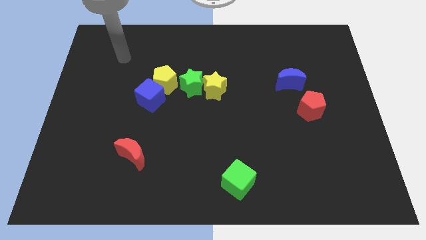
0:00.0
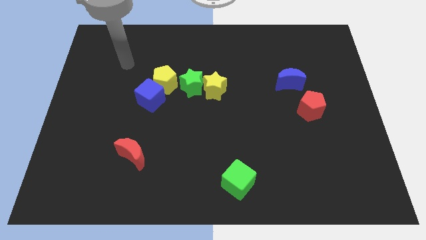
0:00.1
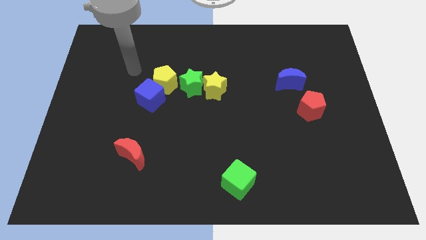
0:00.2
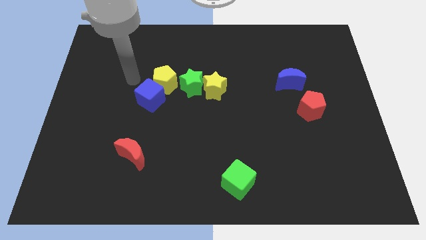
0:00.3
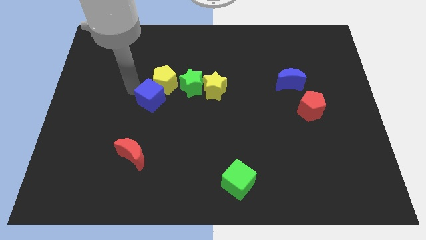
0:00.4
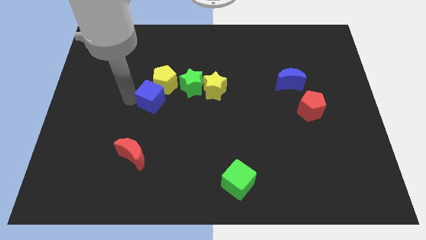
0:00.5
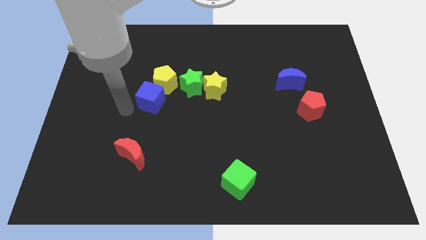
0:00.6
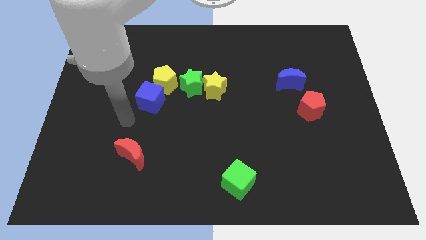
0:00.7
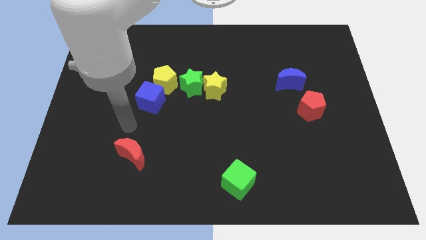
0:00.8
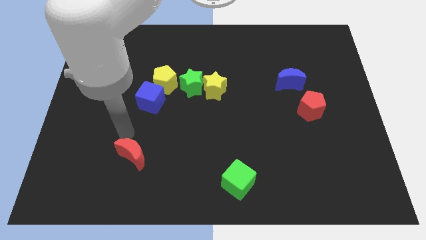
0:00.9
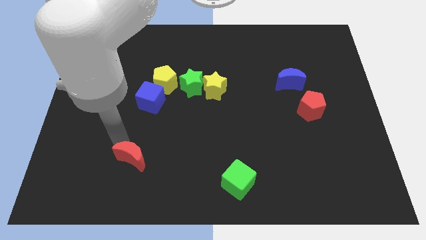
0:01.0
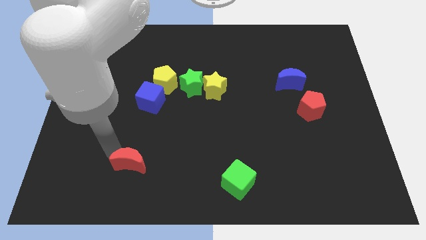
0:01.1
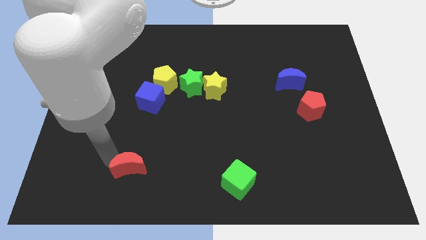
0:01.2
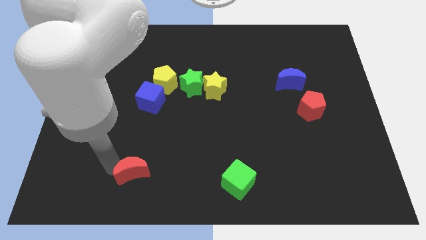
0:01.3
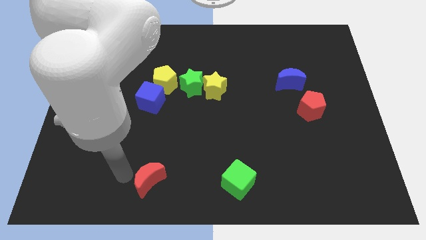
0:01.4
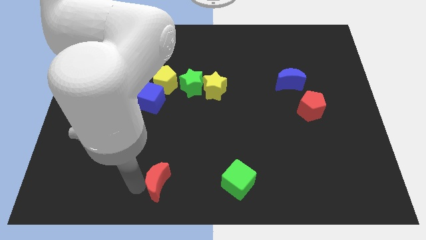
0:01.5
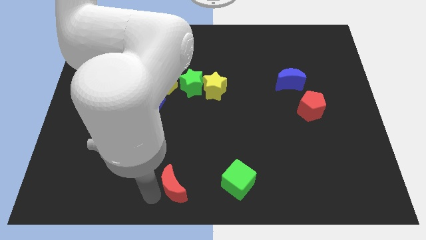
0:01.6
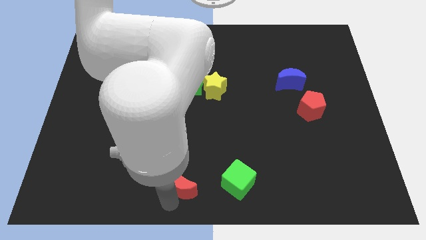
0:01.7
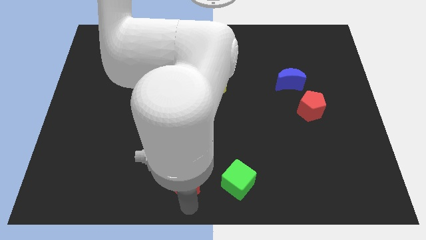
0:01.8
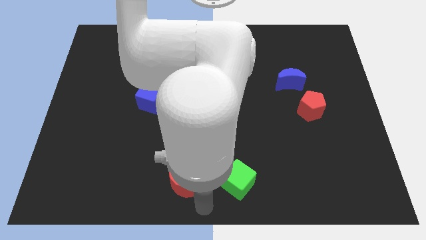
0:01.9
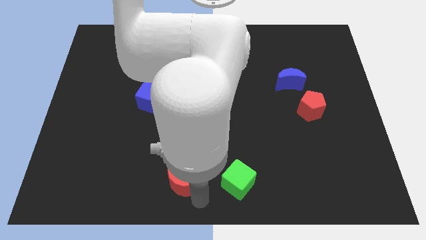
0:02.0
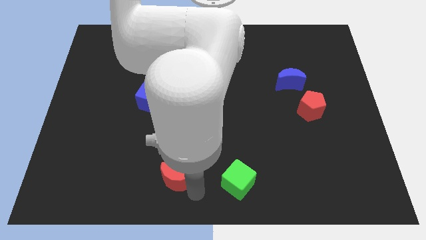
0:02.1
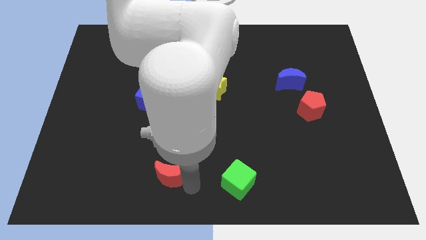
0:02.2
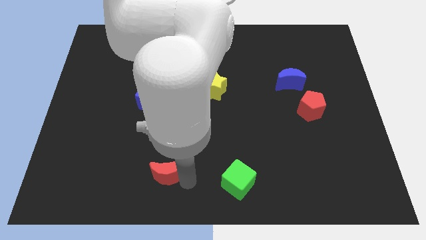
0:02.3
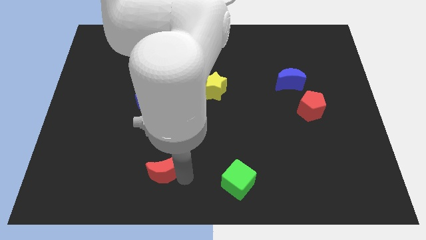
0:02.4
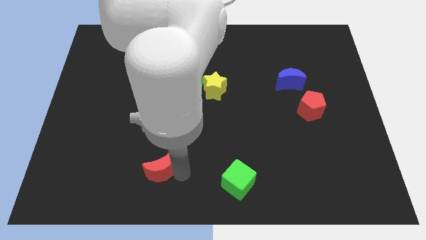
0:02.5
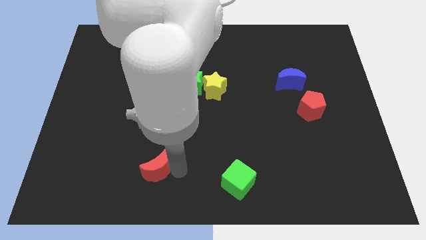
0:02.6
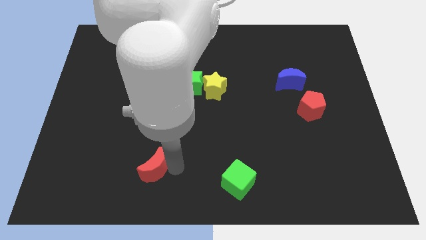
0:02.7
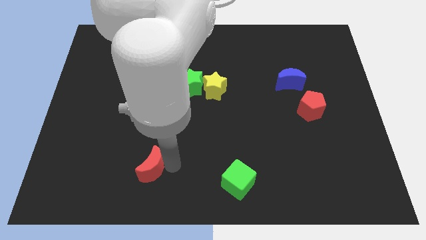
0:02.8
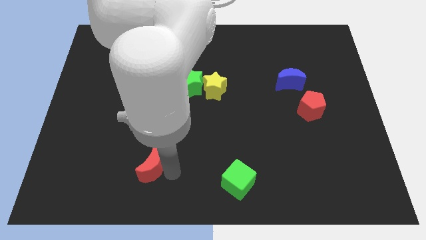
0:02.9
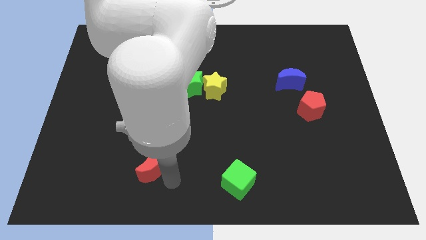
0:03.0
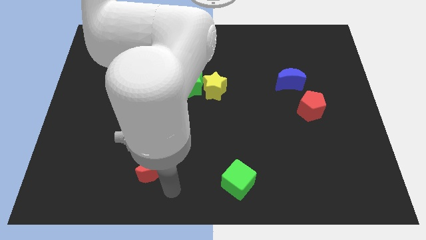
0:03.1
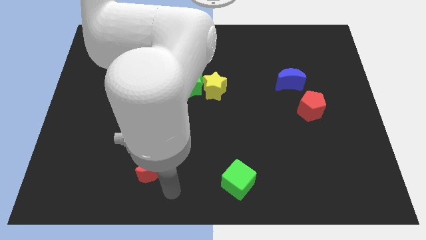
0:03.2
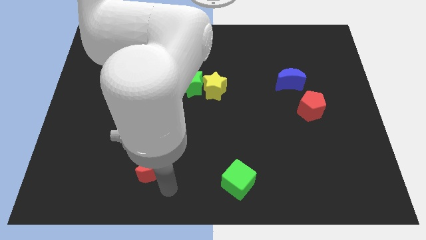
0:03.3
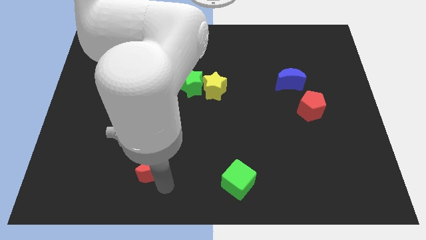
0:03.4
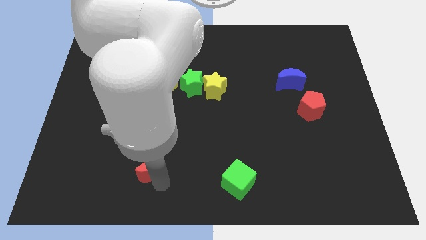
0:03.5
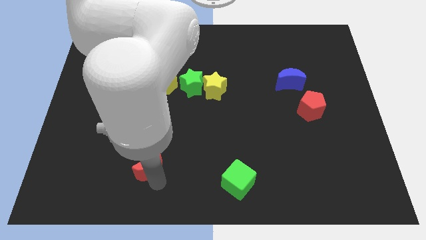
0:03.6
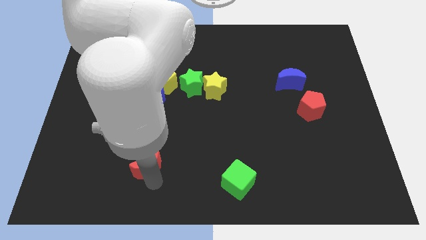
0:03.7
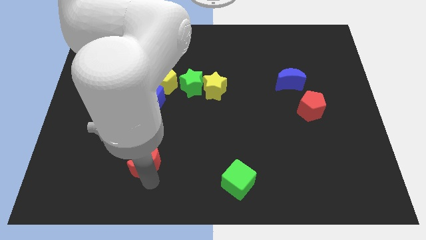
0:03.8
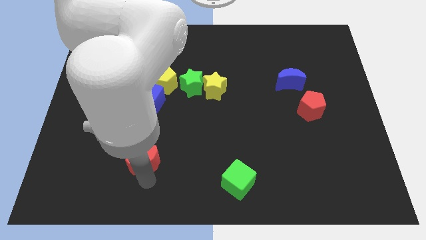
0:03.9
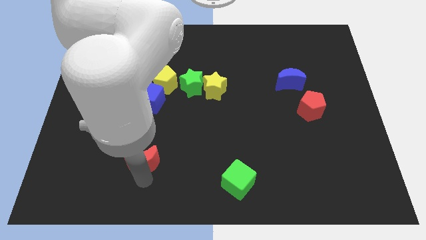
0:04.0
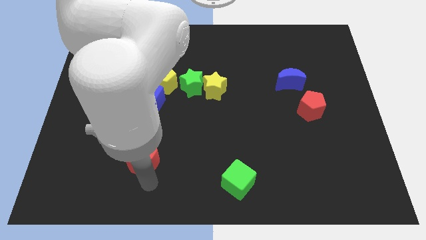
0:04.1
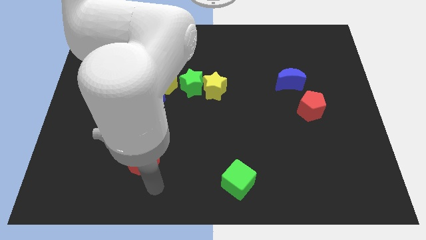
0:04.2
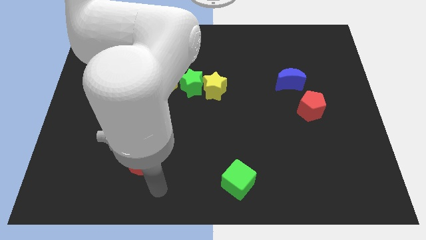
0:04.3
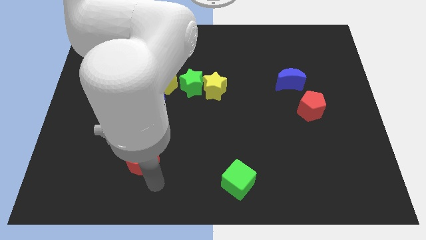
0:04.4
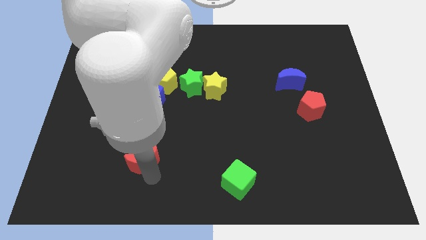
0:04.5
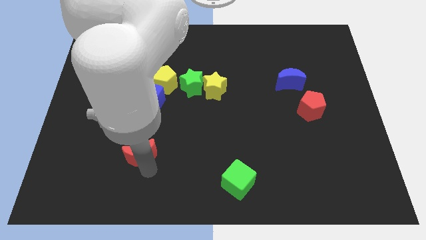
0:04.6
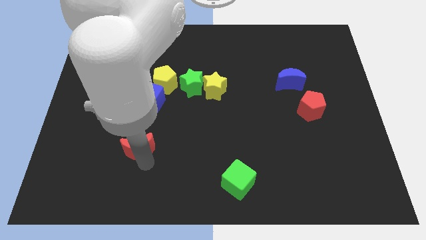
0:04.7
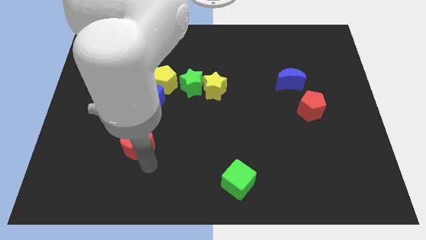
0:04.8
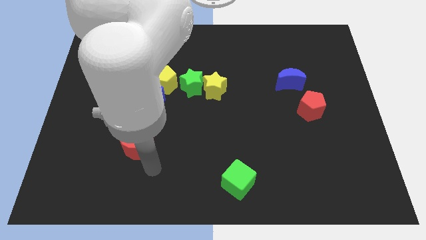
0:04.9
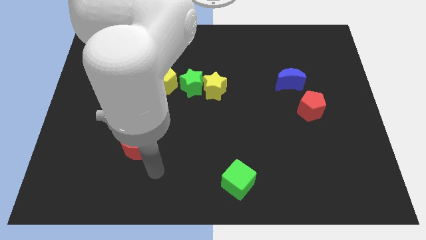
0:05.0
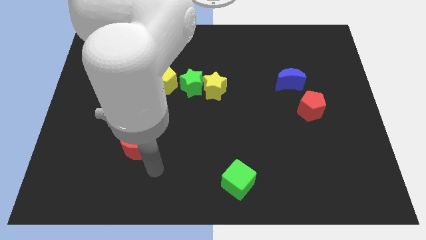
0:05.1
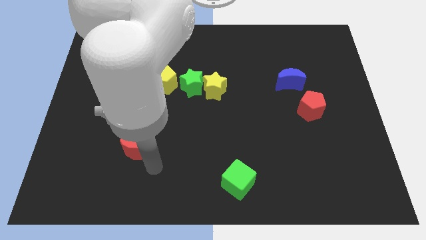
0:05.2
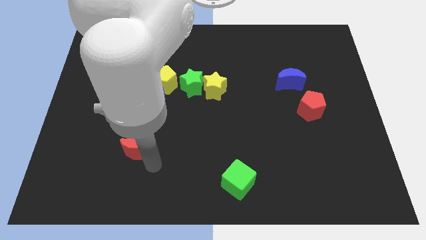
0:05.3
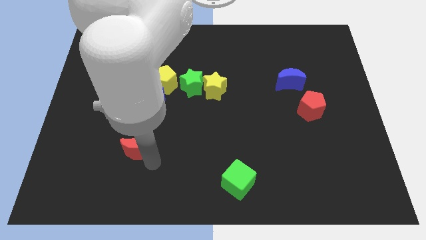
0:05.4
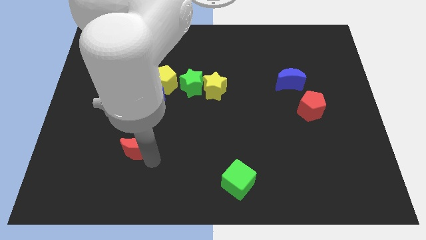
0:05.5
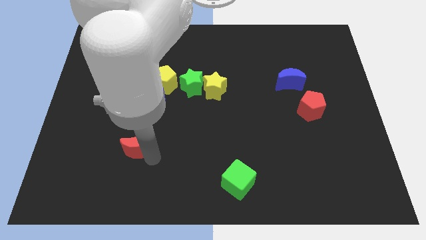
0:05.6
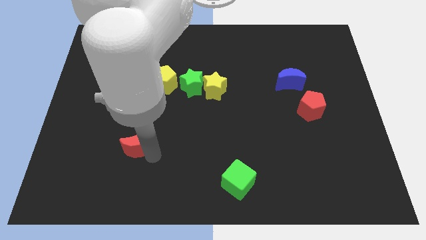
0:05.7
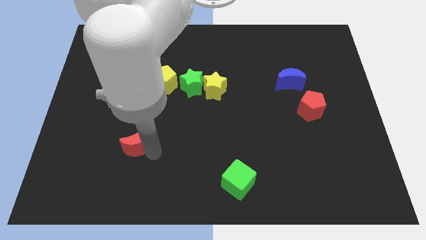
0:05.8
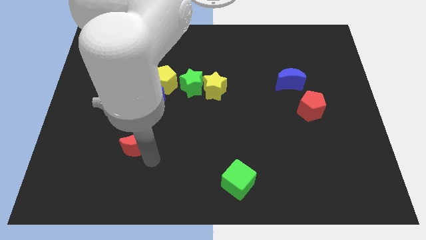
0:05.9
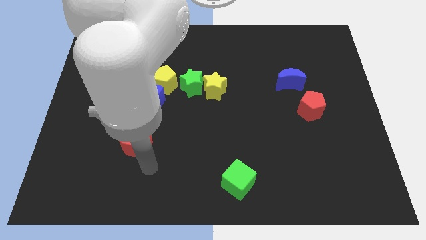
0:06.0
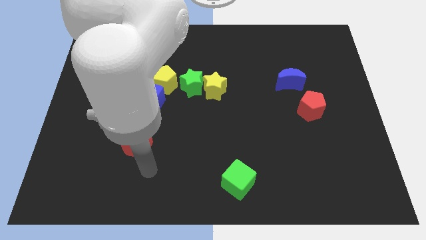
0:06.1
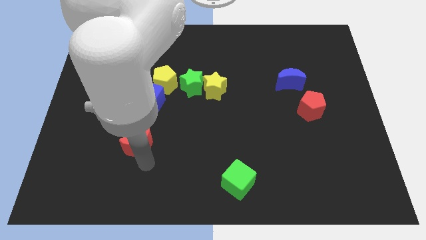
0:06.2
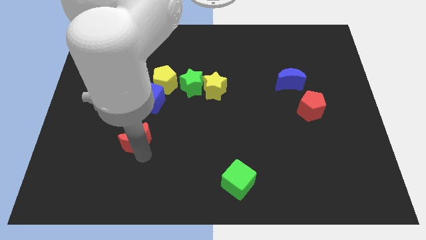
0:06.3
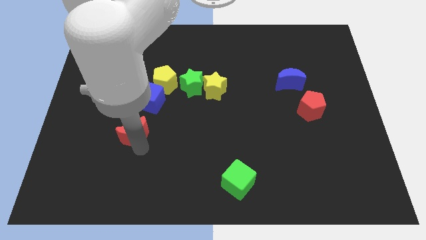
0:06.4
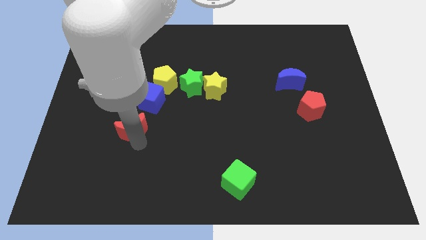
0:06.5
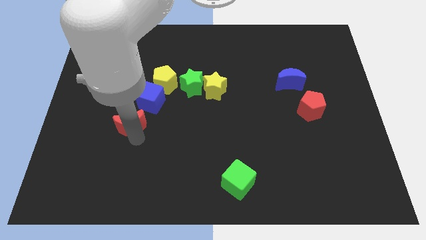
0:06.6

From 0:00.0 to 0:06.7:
move the red moon upwards somewhat

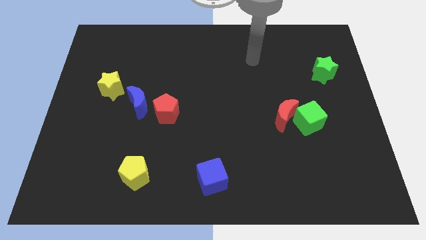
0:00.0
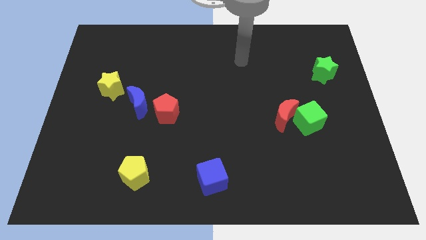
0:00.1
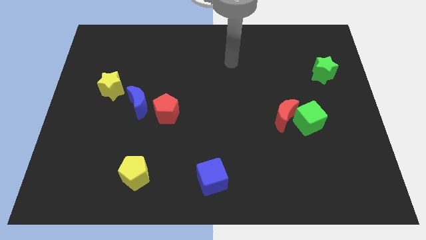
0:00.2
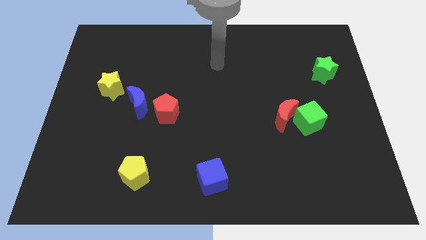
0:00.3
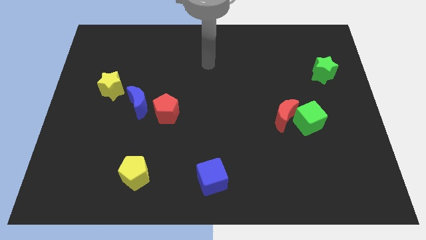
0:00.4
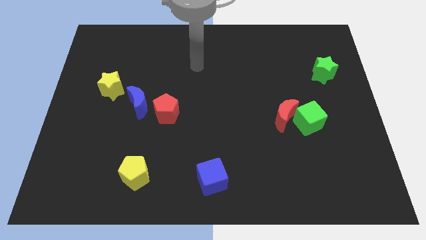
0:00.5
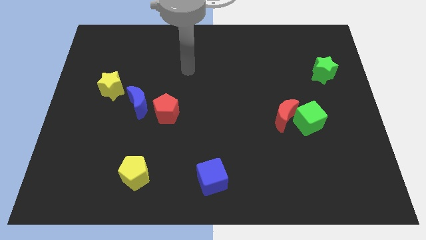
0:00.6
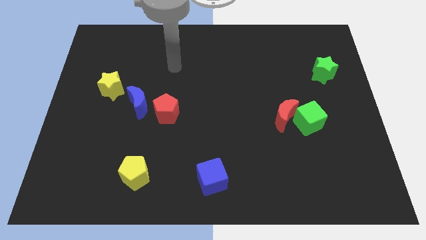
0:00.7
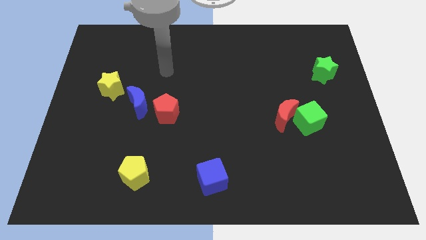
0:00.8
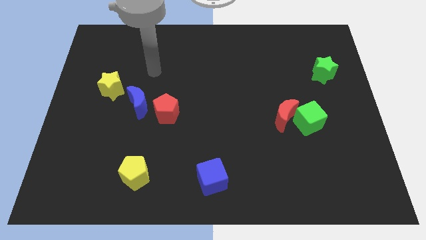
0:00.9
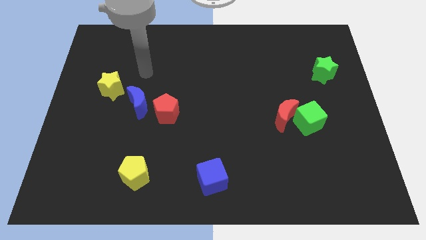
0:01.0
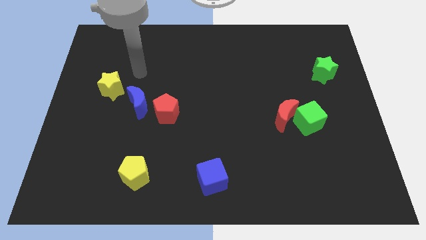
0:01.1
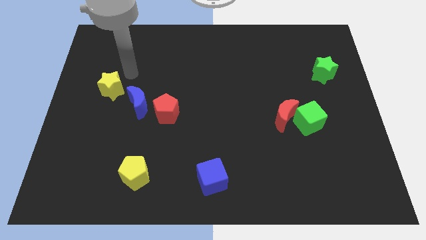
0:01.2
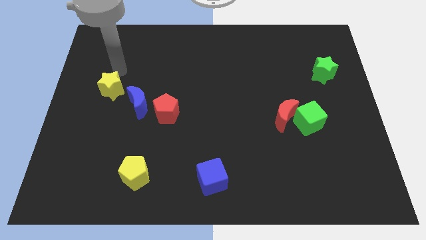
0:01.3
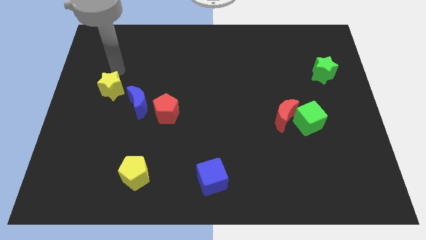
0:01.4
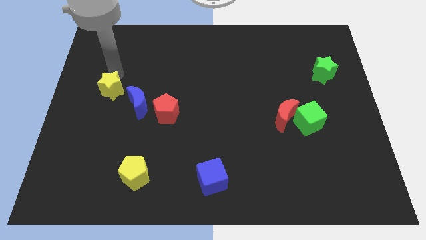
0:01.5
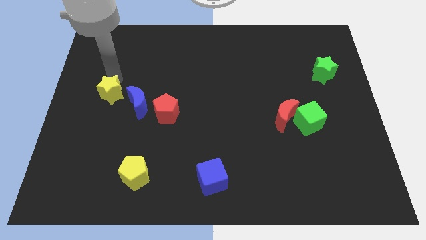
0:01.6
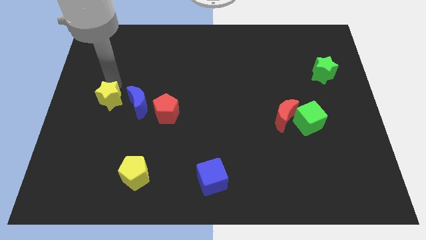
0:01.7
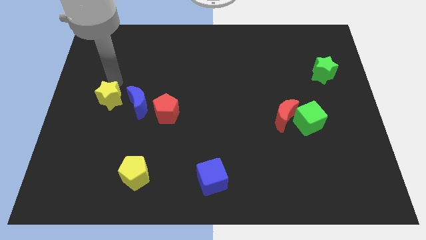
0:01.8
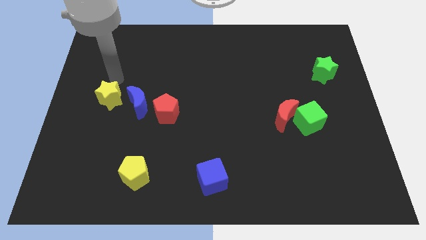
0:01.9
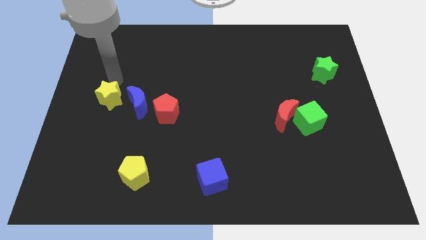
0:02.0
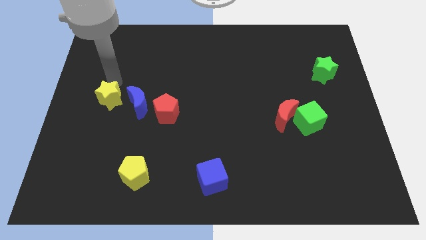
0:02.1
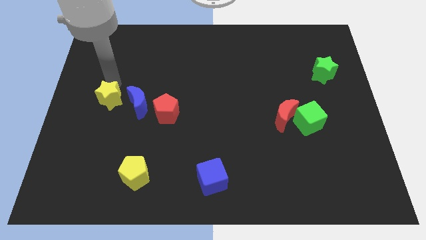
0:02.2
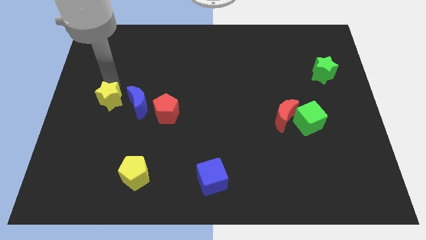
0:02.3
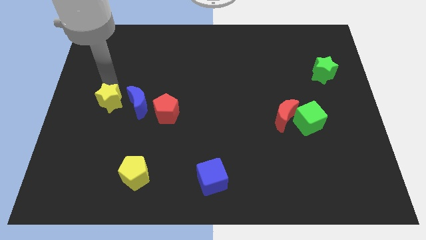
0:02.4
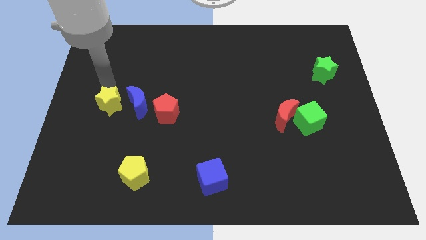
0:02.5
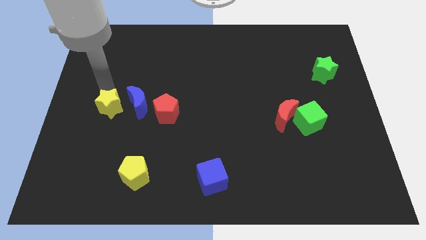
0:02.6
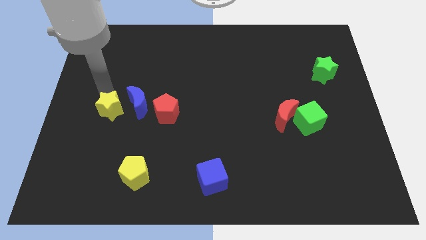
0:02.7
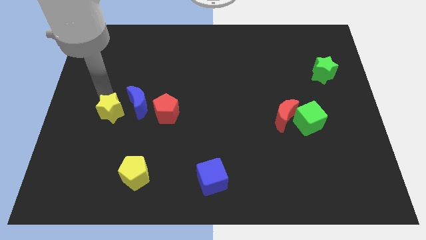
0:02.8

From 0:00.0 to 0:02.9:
slightly push the yellow star downwards
